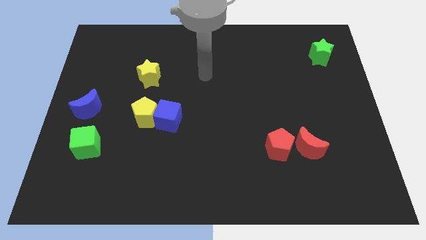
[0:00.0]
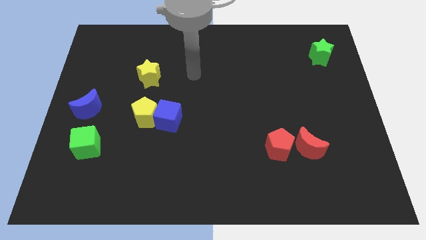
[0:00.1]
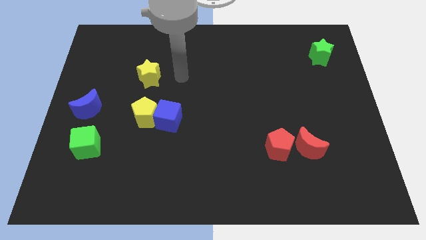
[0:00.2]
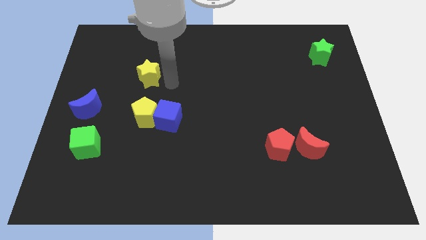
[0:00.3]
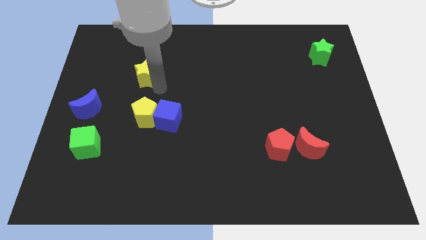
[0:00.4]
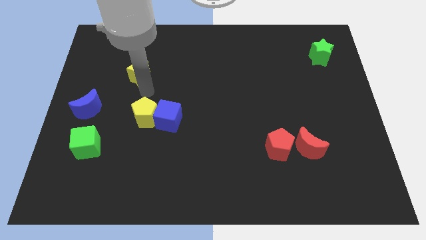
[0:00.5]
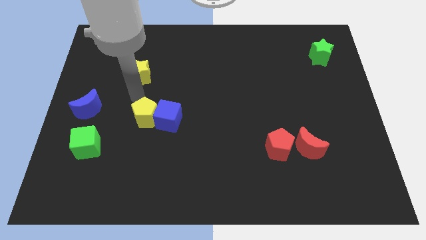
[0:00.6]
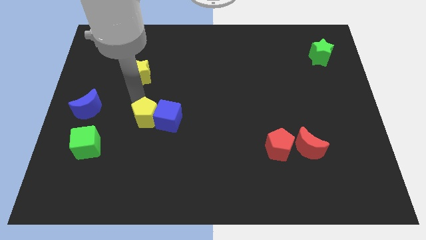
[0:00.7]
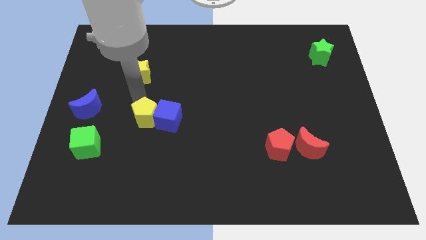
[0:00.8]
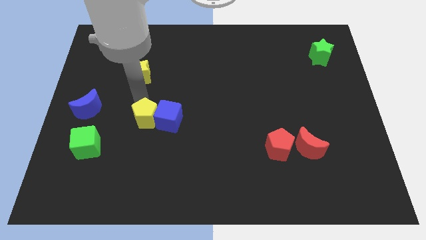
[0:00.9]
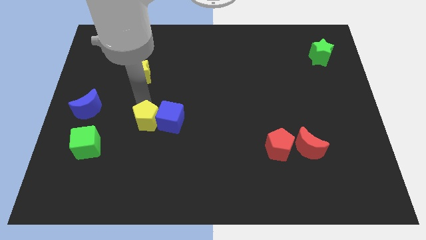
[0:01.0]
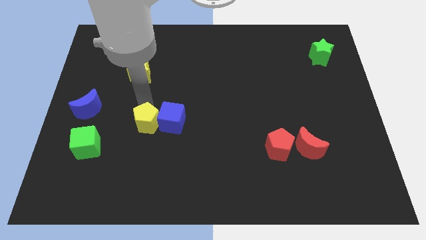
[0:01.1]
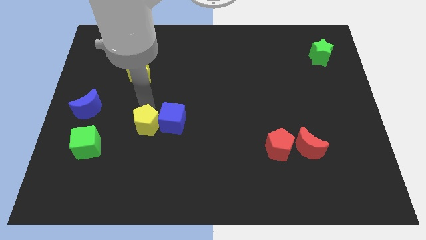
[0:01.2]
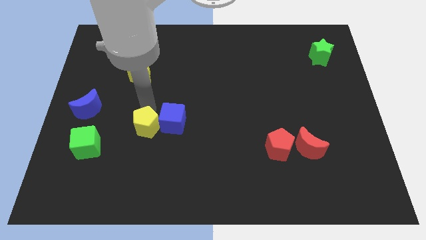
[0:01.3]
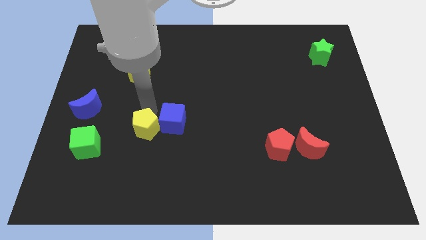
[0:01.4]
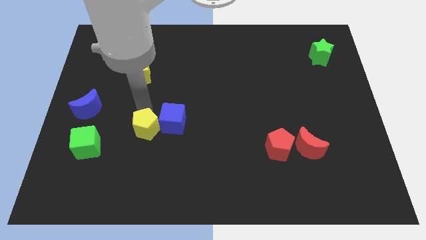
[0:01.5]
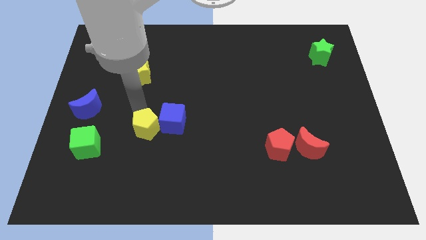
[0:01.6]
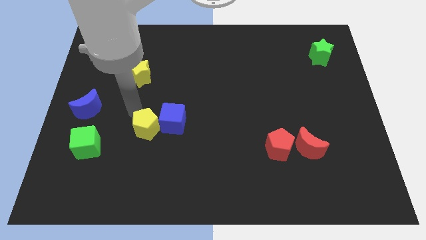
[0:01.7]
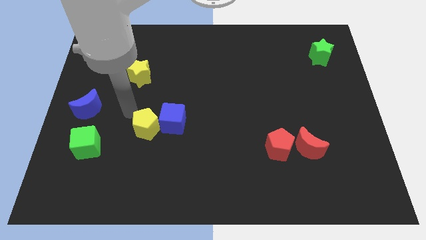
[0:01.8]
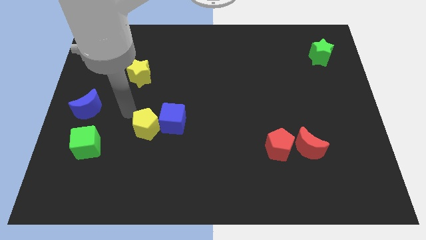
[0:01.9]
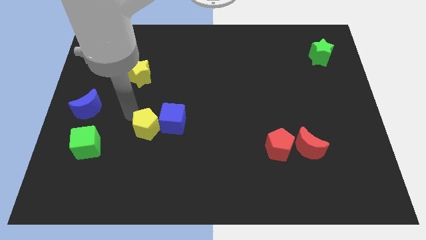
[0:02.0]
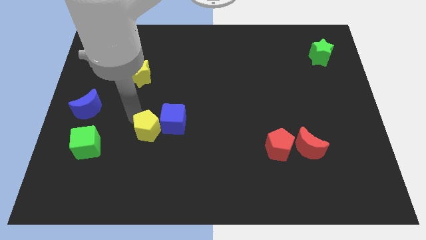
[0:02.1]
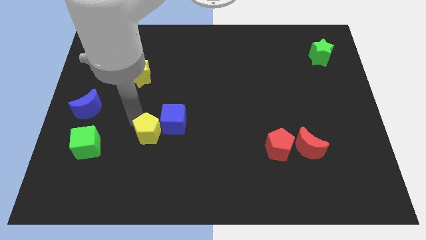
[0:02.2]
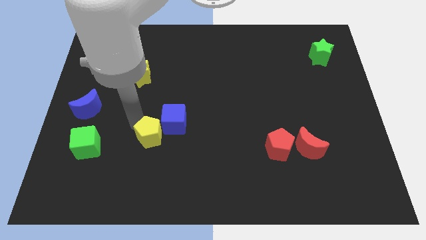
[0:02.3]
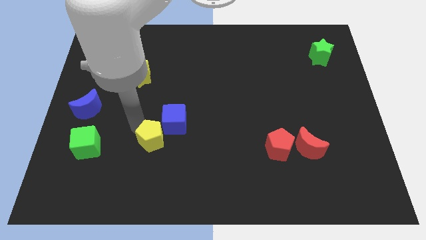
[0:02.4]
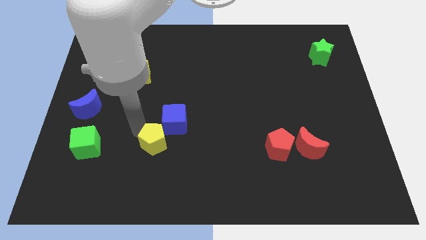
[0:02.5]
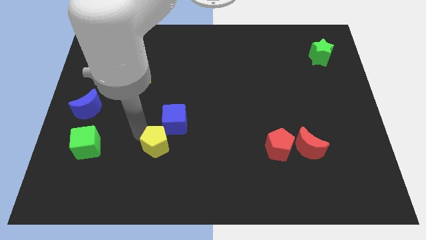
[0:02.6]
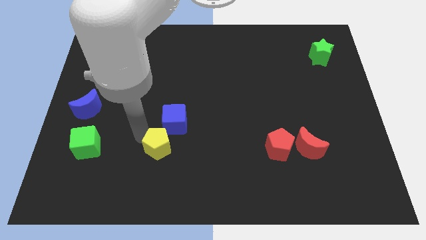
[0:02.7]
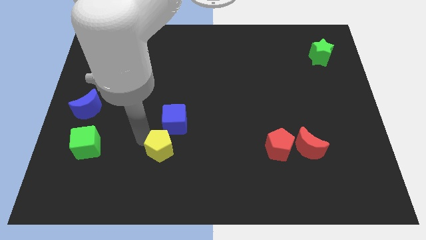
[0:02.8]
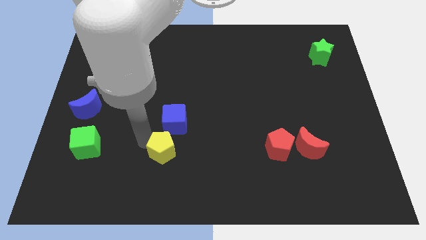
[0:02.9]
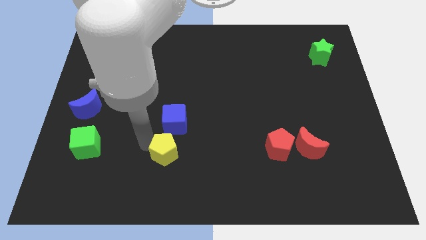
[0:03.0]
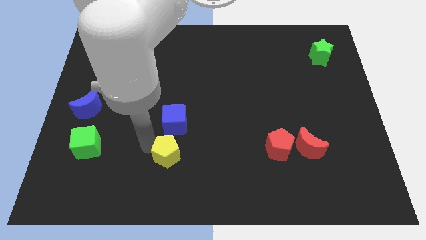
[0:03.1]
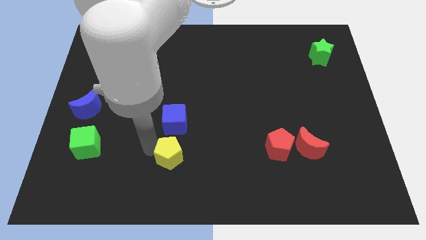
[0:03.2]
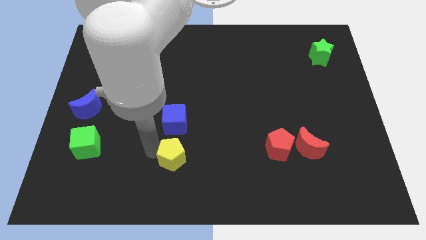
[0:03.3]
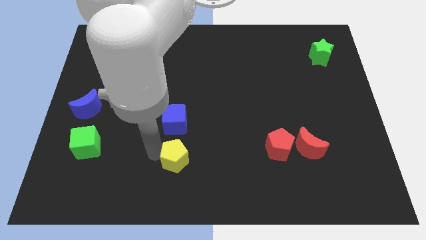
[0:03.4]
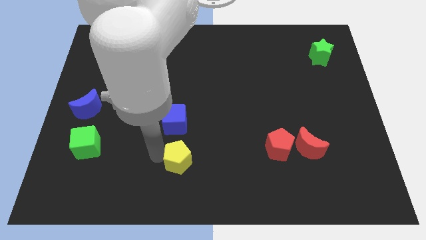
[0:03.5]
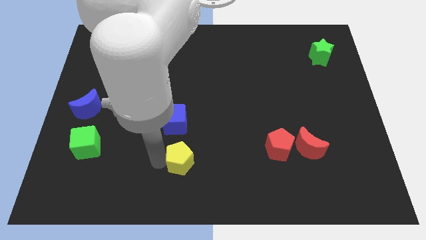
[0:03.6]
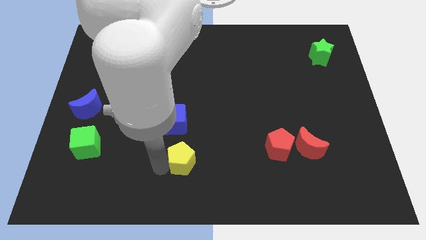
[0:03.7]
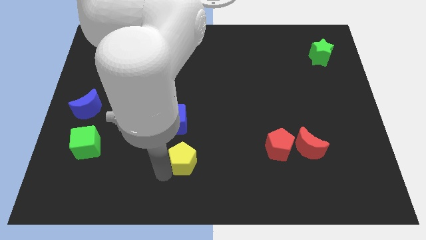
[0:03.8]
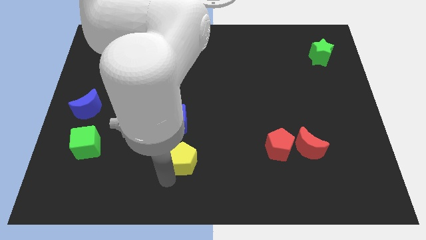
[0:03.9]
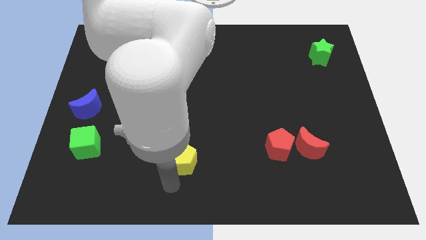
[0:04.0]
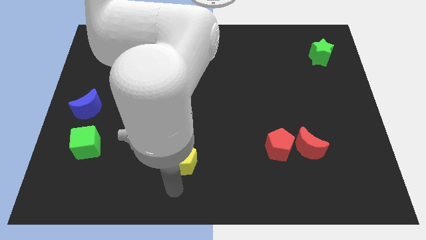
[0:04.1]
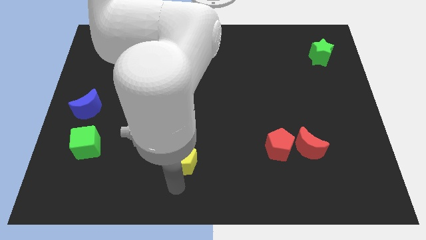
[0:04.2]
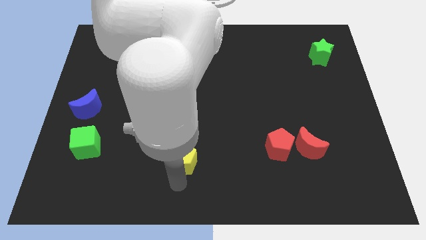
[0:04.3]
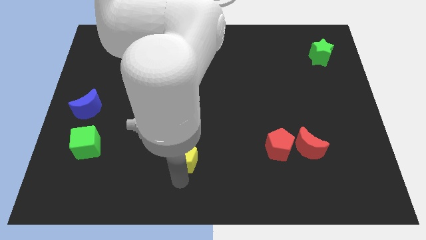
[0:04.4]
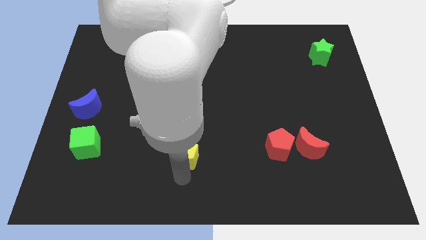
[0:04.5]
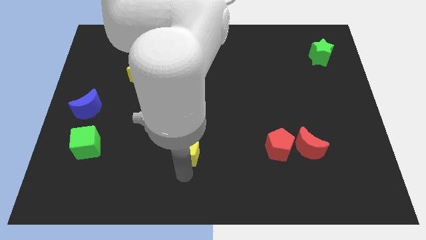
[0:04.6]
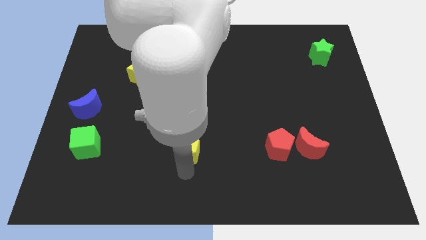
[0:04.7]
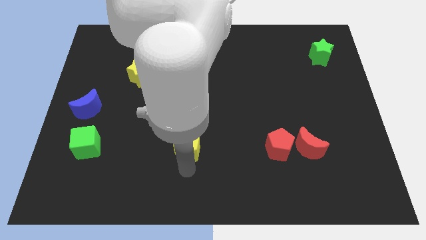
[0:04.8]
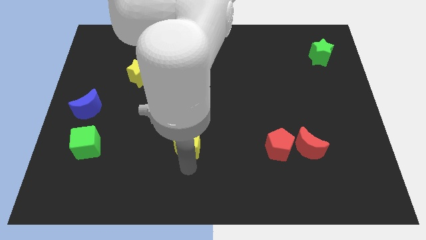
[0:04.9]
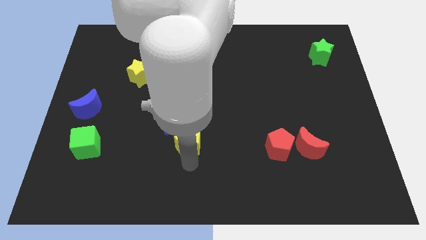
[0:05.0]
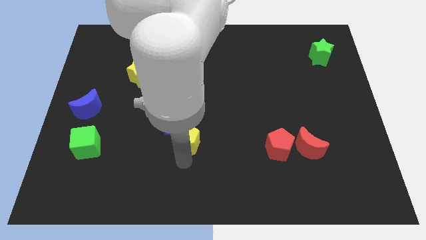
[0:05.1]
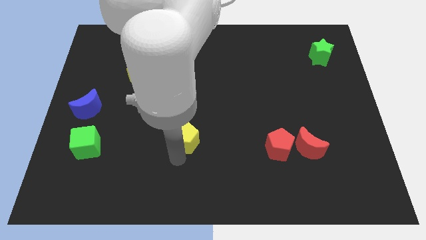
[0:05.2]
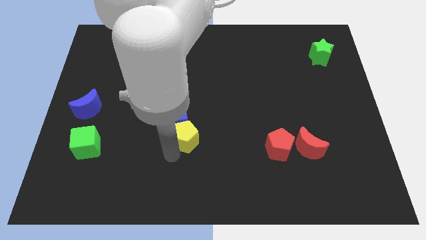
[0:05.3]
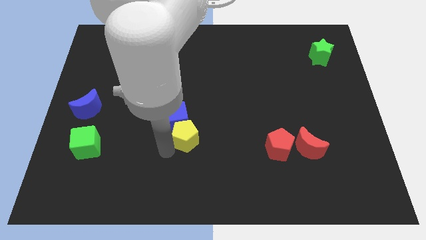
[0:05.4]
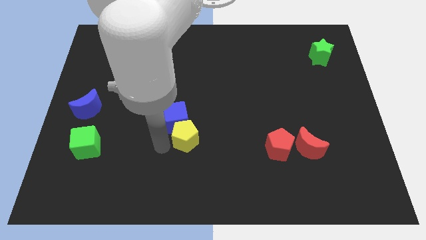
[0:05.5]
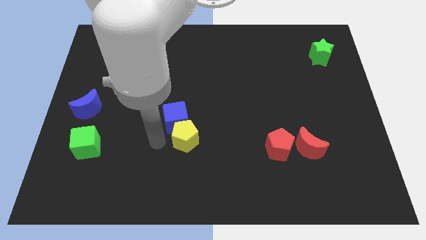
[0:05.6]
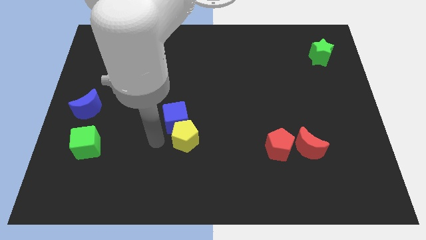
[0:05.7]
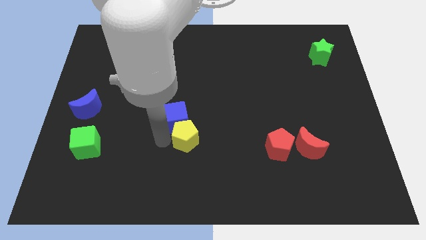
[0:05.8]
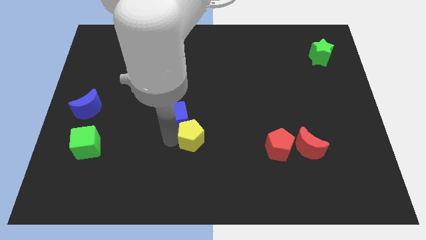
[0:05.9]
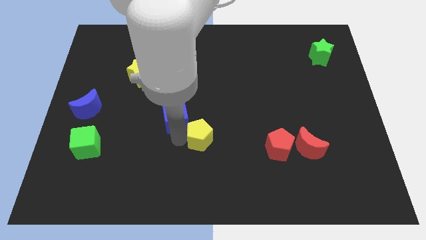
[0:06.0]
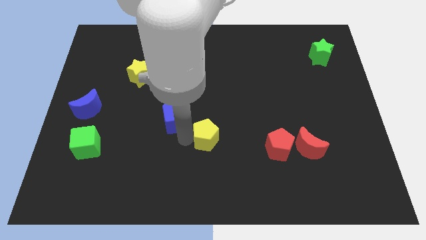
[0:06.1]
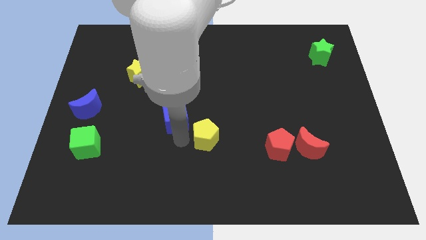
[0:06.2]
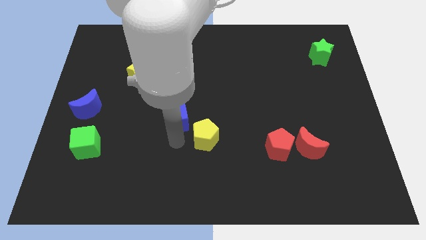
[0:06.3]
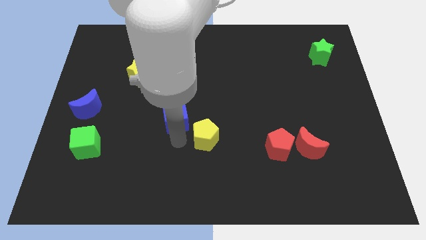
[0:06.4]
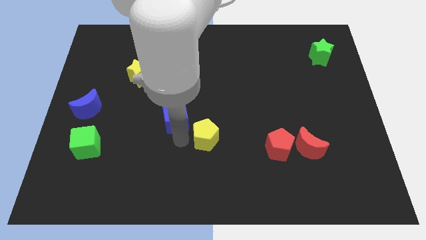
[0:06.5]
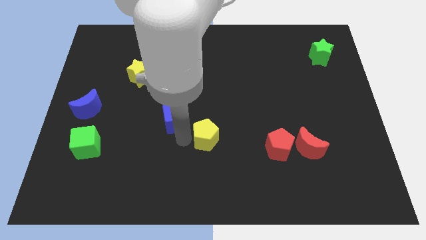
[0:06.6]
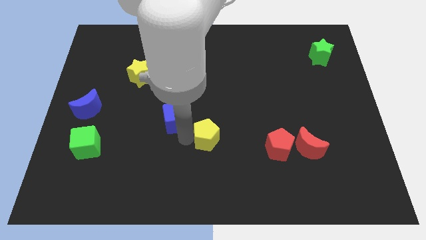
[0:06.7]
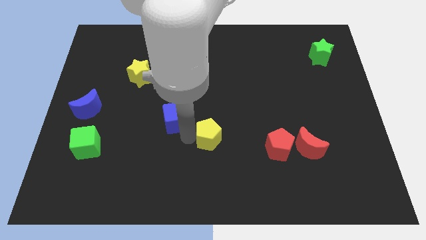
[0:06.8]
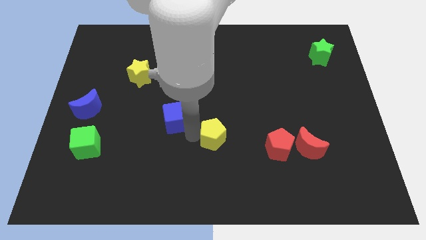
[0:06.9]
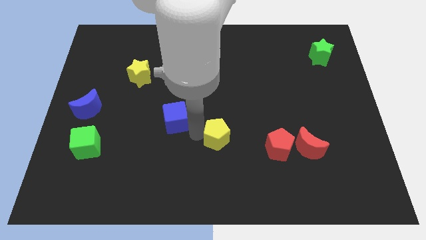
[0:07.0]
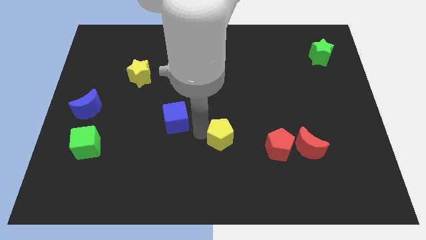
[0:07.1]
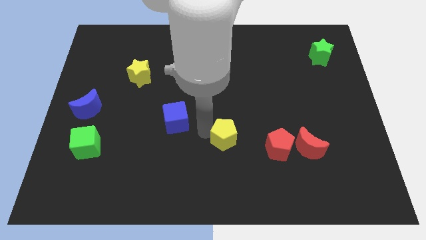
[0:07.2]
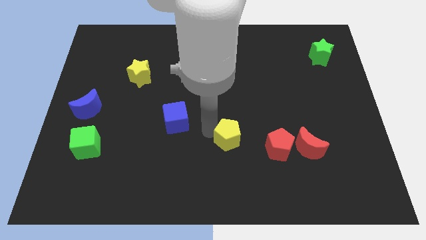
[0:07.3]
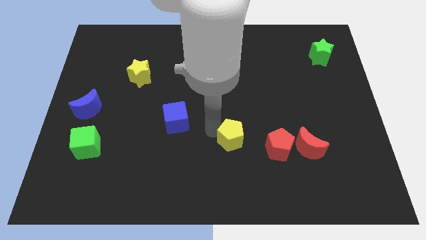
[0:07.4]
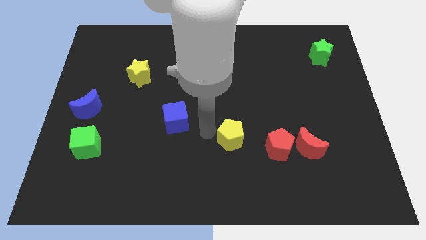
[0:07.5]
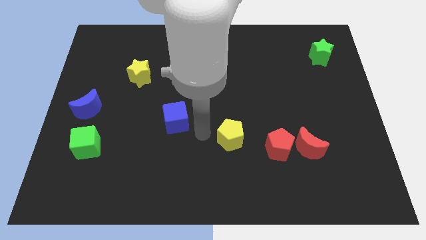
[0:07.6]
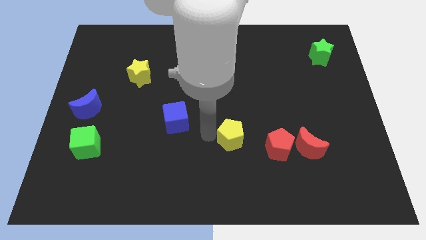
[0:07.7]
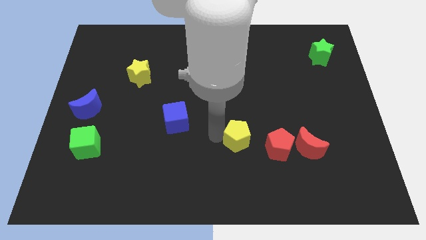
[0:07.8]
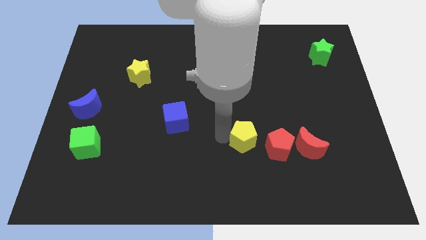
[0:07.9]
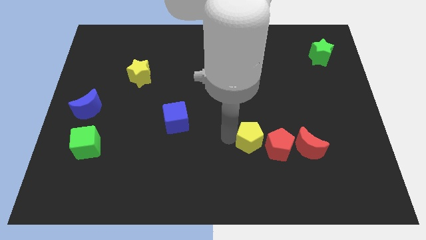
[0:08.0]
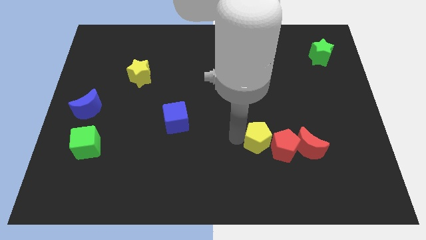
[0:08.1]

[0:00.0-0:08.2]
move the yellow pentagon to the red pentagon
